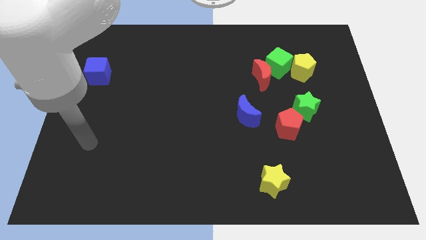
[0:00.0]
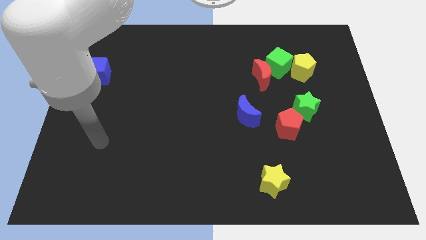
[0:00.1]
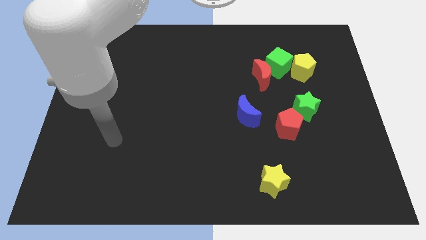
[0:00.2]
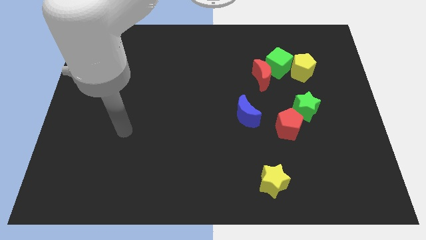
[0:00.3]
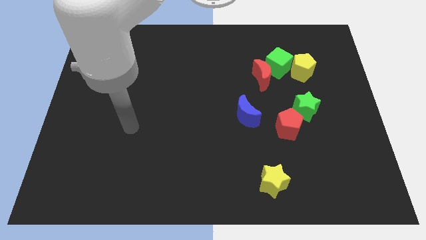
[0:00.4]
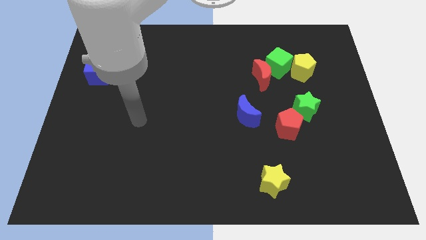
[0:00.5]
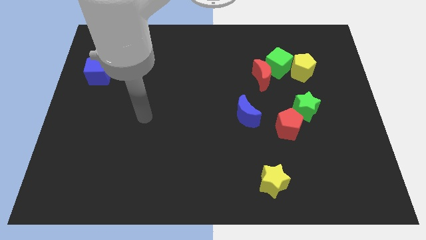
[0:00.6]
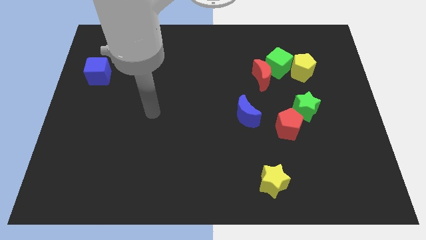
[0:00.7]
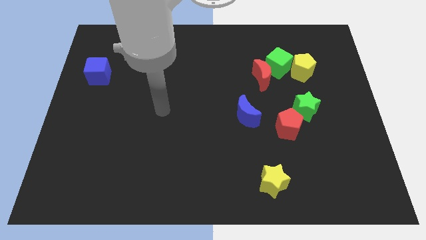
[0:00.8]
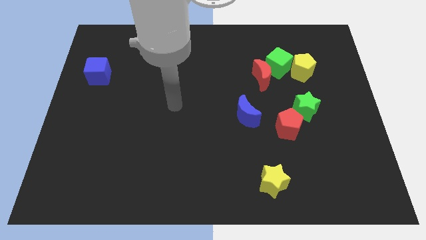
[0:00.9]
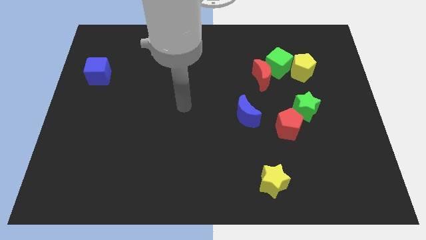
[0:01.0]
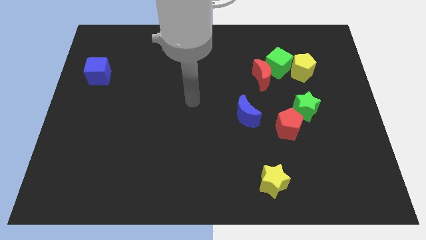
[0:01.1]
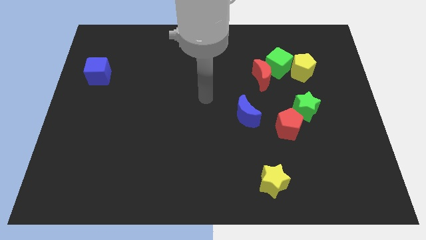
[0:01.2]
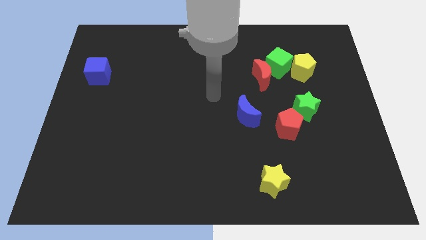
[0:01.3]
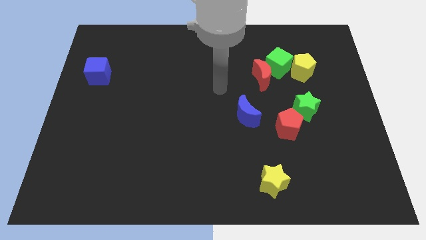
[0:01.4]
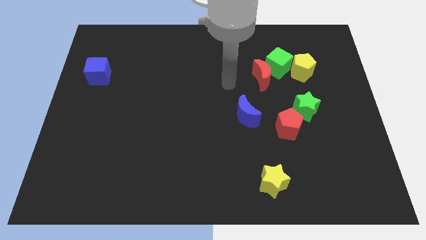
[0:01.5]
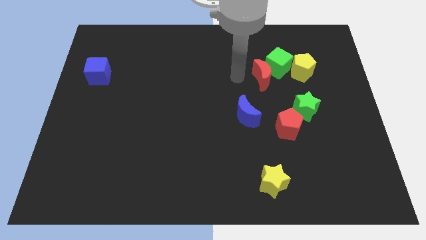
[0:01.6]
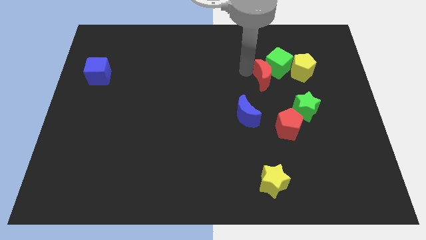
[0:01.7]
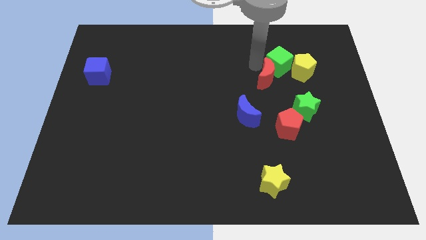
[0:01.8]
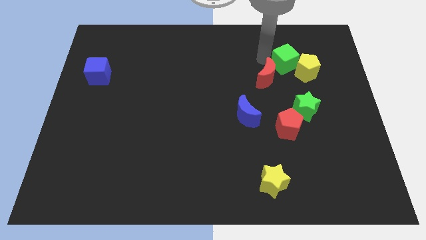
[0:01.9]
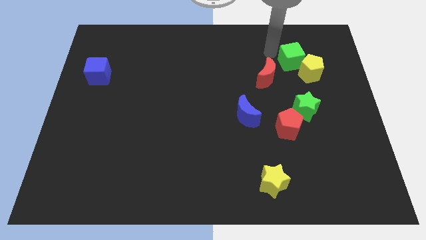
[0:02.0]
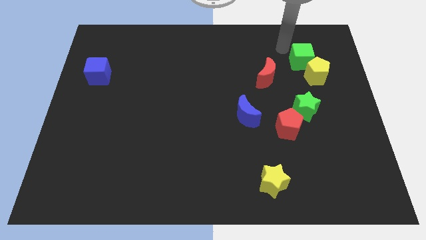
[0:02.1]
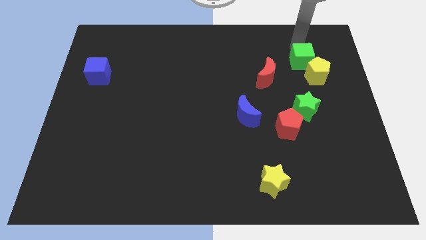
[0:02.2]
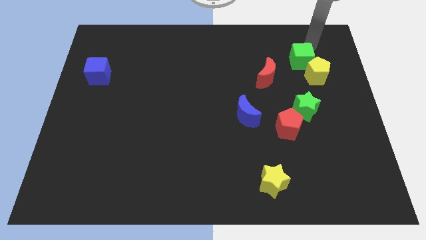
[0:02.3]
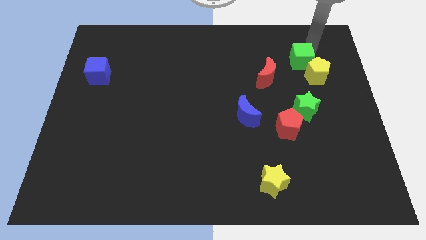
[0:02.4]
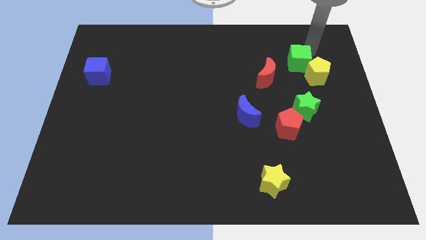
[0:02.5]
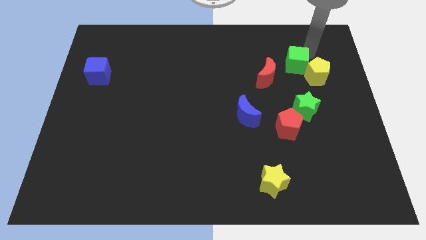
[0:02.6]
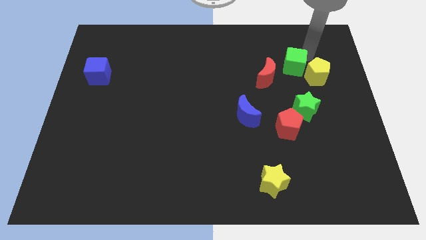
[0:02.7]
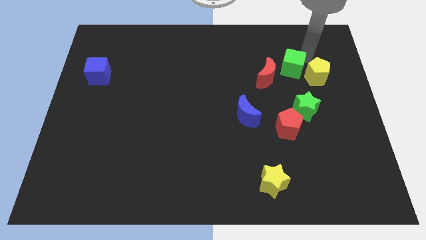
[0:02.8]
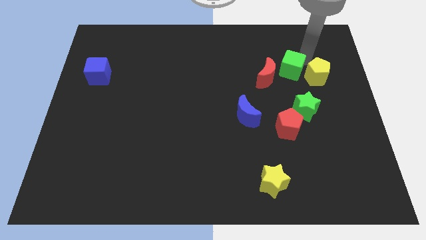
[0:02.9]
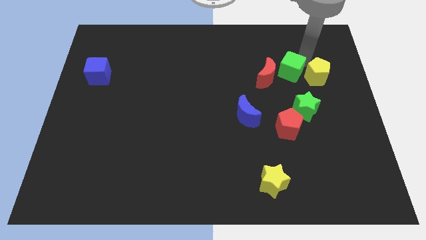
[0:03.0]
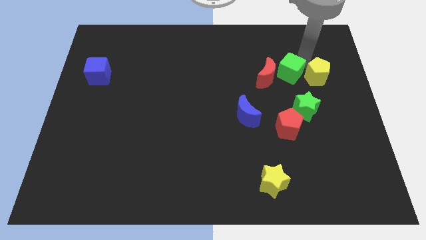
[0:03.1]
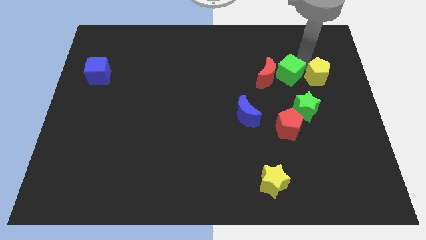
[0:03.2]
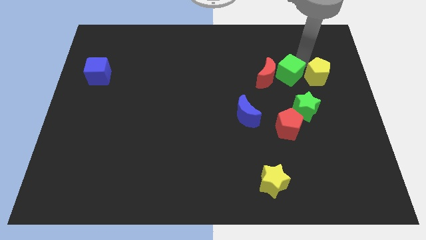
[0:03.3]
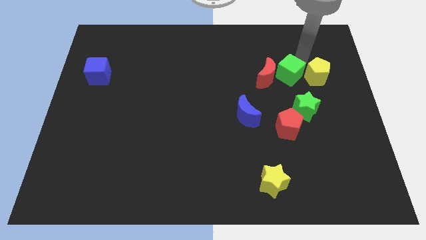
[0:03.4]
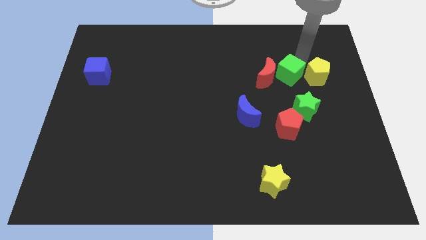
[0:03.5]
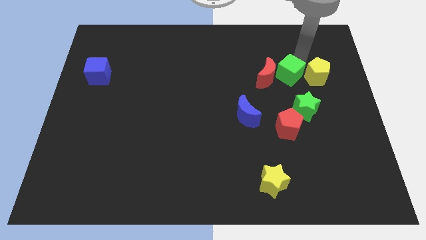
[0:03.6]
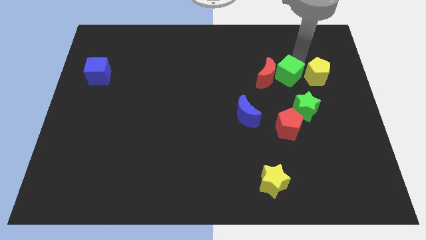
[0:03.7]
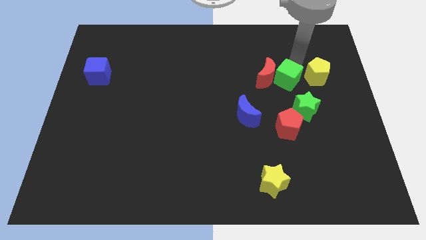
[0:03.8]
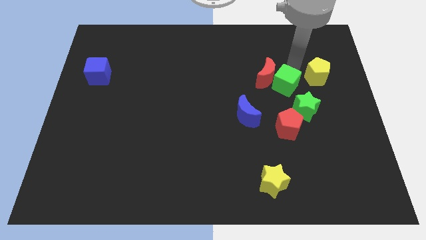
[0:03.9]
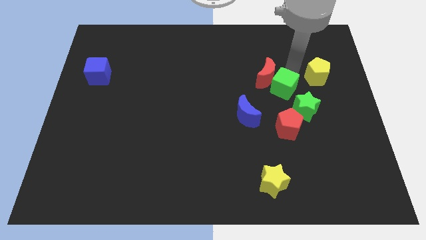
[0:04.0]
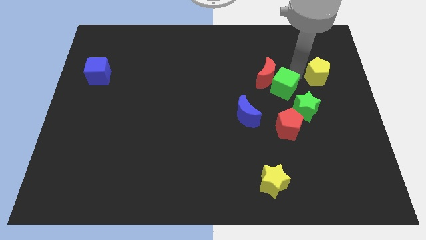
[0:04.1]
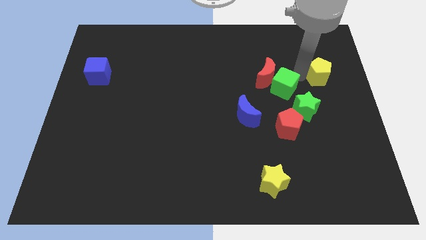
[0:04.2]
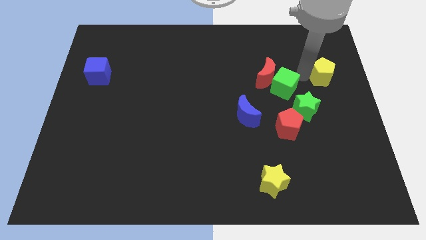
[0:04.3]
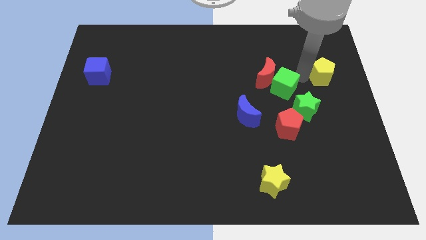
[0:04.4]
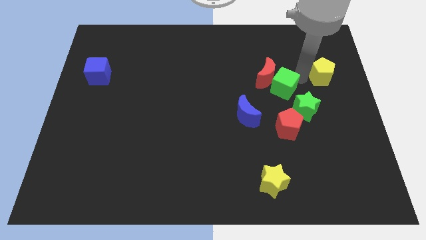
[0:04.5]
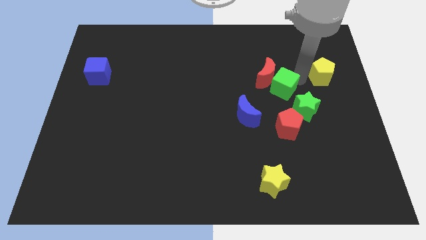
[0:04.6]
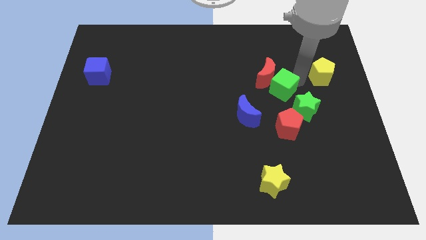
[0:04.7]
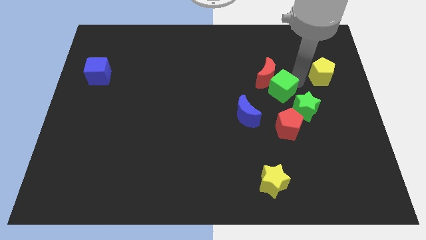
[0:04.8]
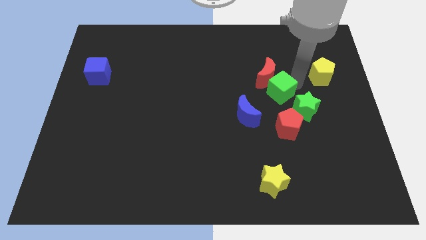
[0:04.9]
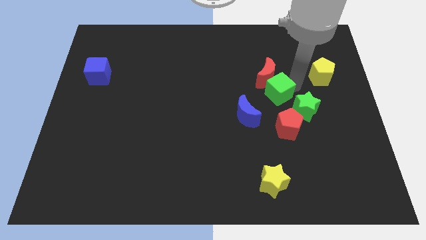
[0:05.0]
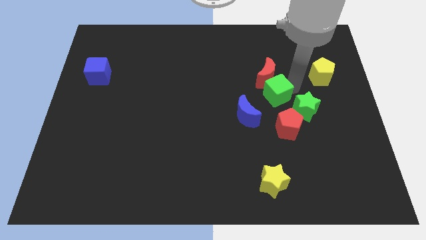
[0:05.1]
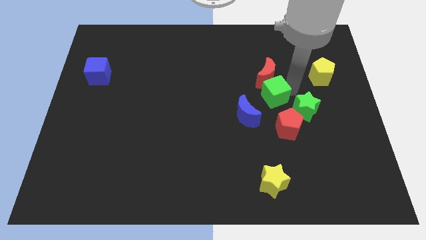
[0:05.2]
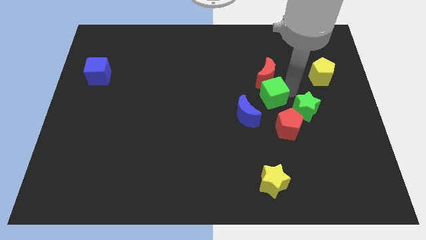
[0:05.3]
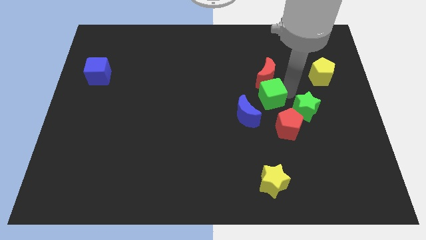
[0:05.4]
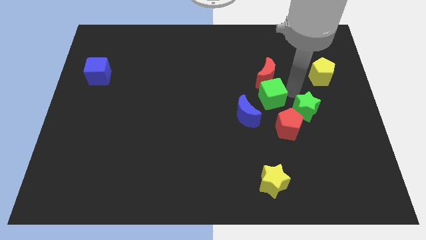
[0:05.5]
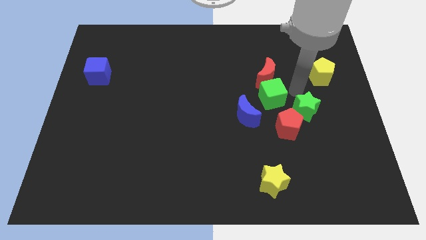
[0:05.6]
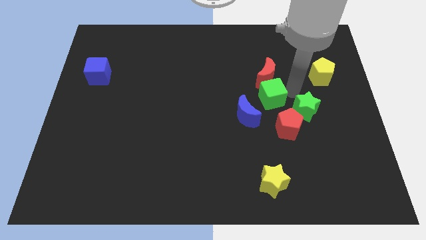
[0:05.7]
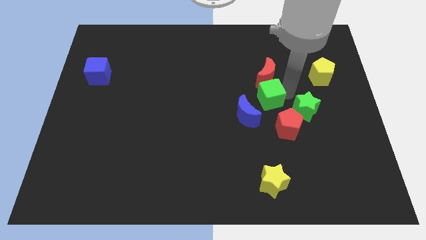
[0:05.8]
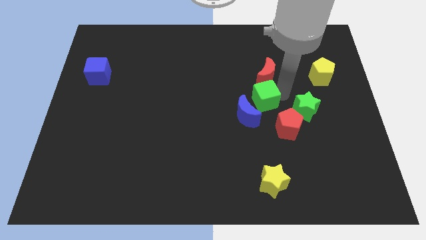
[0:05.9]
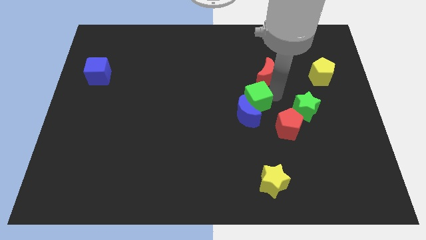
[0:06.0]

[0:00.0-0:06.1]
put the green cube close to the blue moon

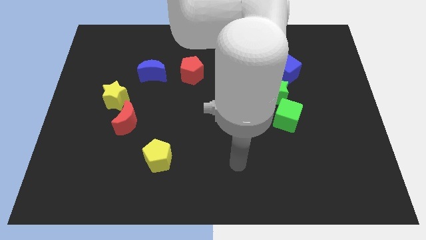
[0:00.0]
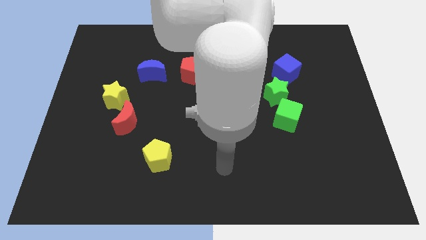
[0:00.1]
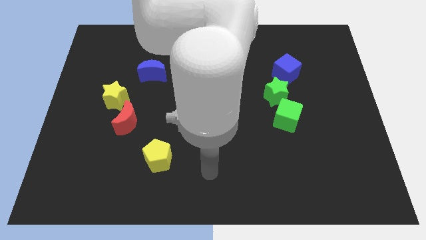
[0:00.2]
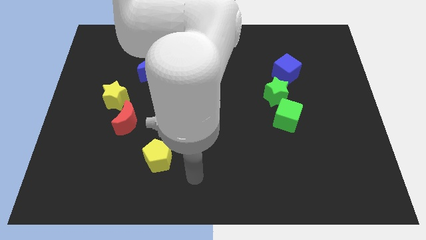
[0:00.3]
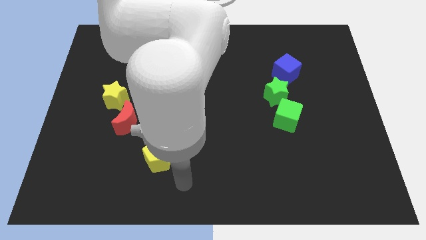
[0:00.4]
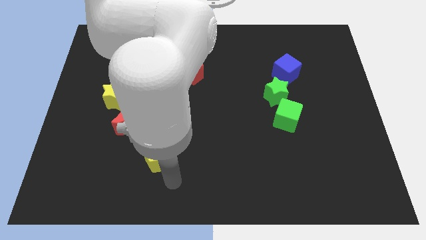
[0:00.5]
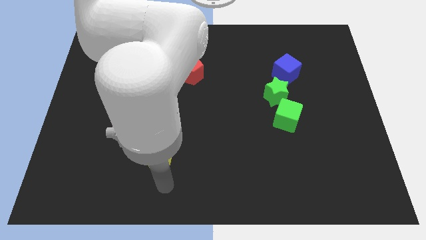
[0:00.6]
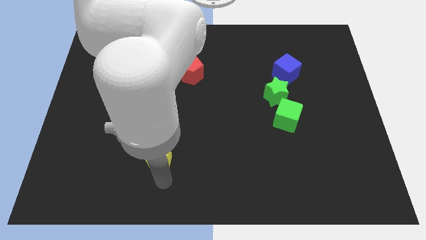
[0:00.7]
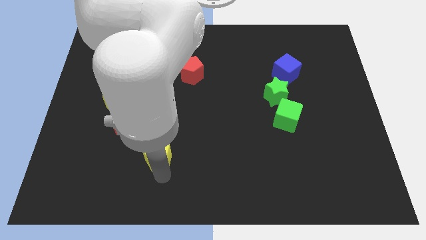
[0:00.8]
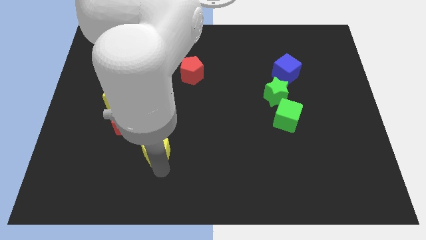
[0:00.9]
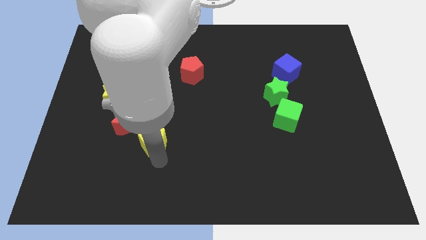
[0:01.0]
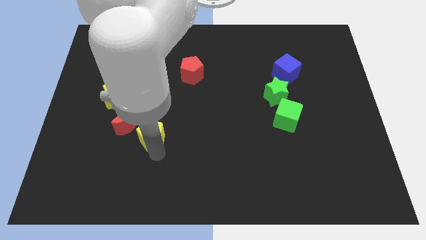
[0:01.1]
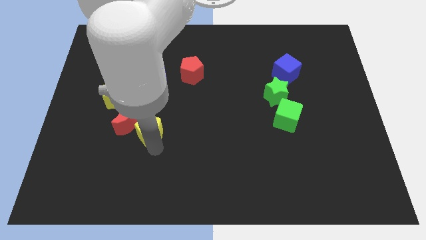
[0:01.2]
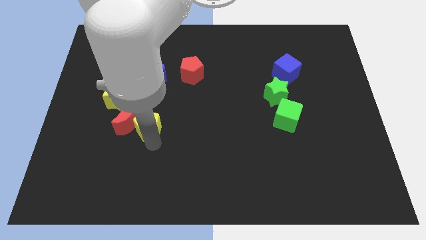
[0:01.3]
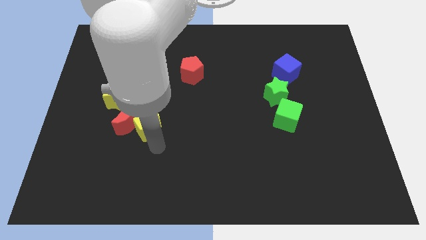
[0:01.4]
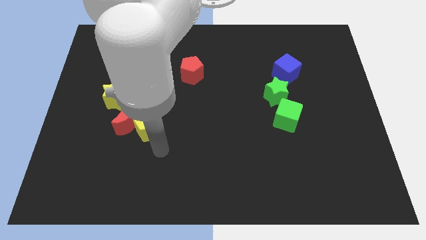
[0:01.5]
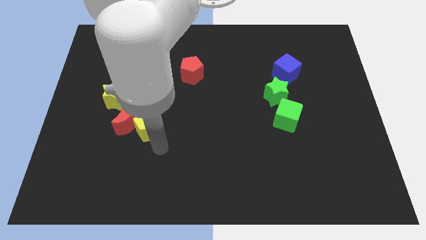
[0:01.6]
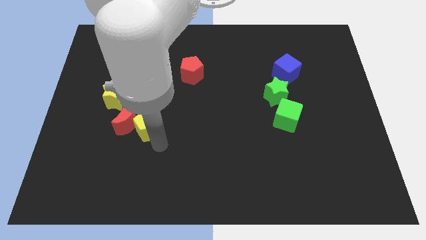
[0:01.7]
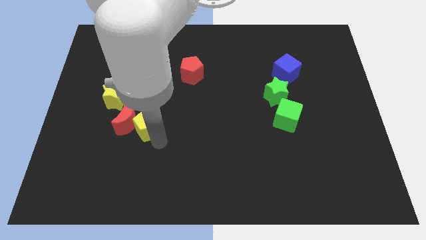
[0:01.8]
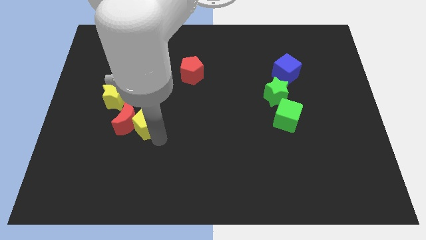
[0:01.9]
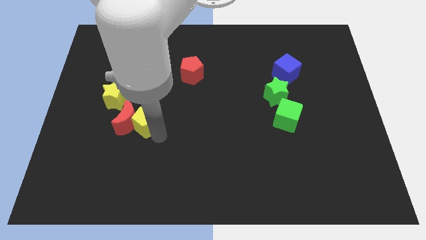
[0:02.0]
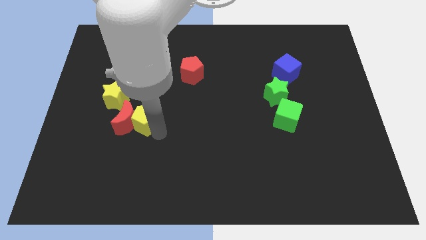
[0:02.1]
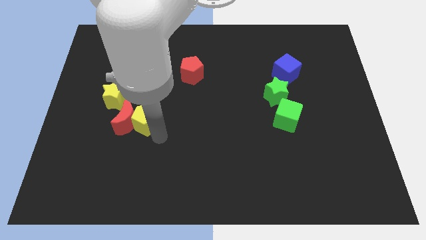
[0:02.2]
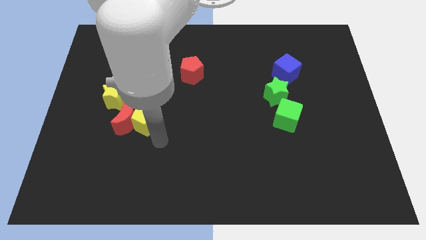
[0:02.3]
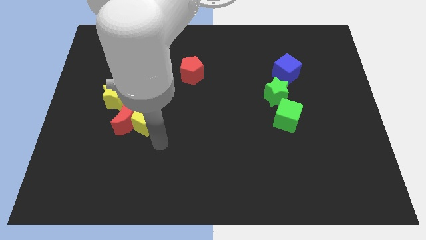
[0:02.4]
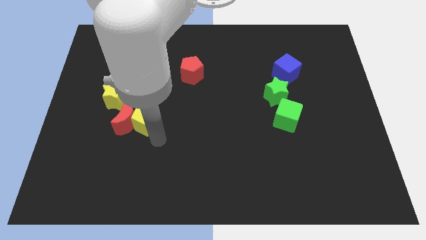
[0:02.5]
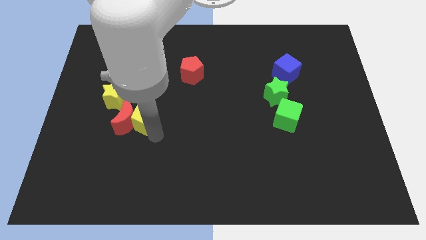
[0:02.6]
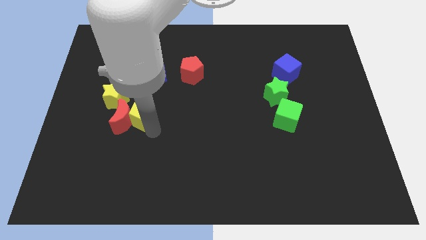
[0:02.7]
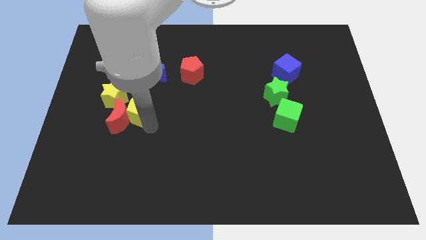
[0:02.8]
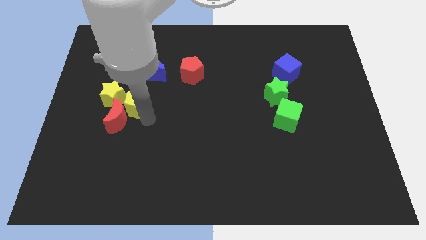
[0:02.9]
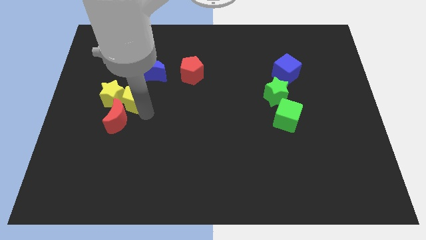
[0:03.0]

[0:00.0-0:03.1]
push the yellow pentagon towards the yellow star
